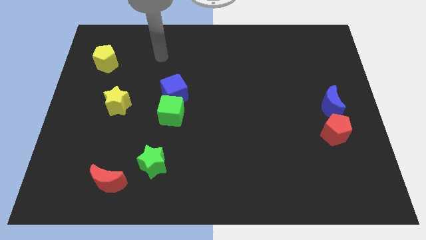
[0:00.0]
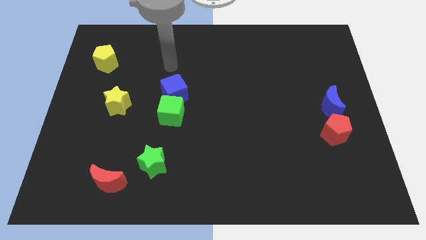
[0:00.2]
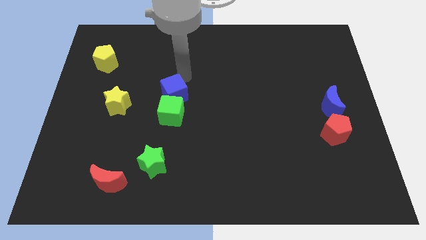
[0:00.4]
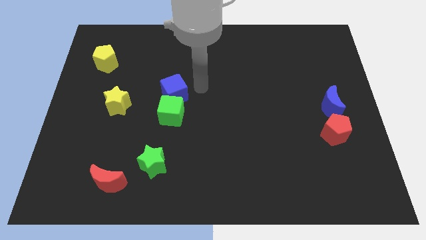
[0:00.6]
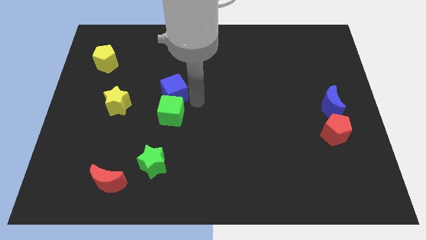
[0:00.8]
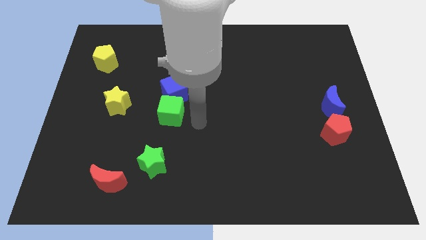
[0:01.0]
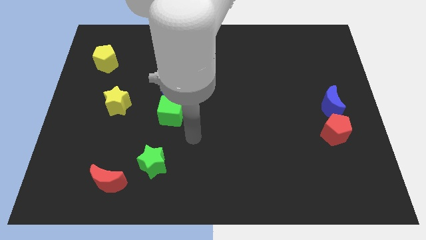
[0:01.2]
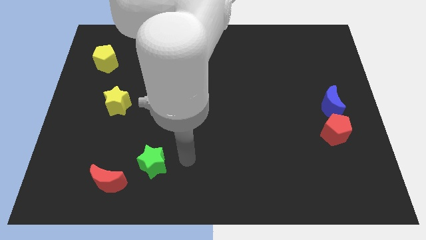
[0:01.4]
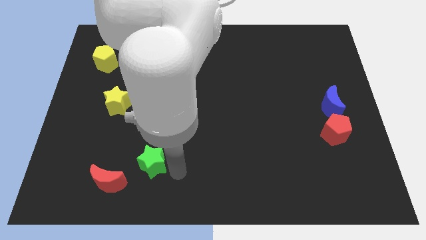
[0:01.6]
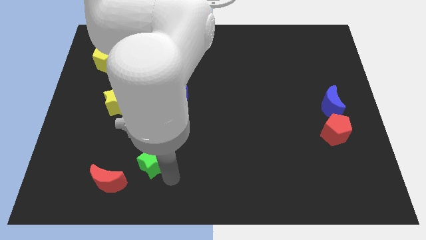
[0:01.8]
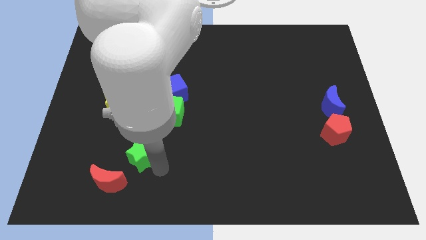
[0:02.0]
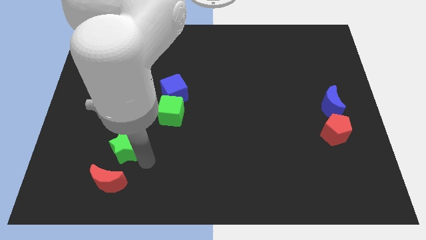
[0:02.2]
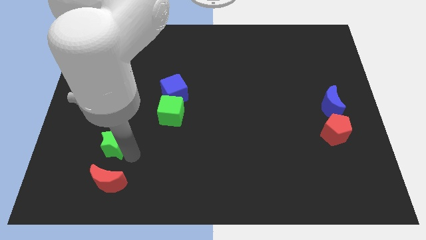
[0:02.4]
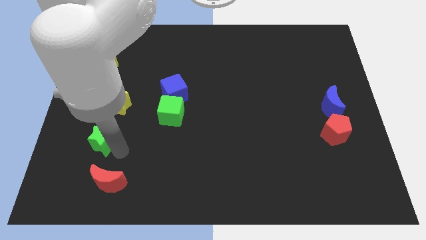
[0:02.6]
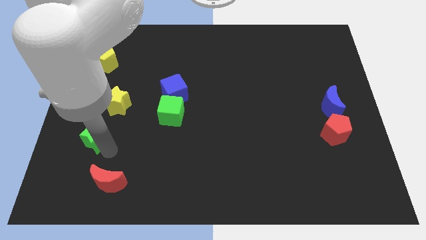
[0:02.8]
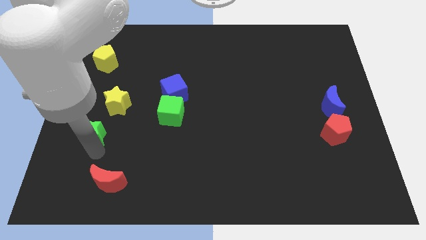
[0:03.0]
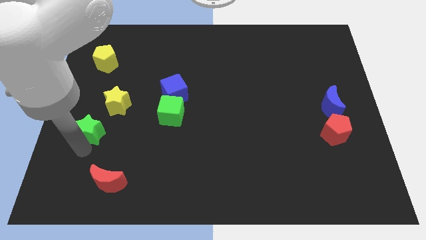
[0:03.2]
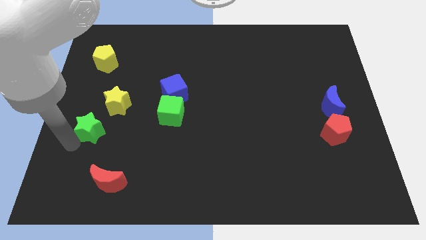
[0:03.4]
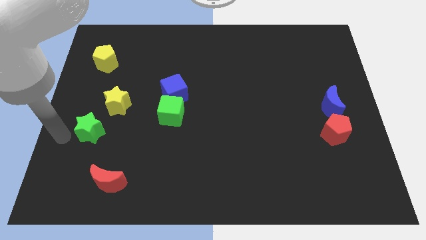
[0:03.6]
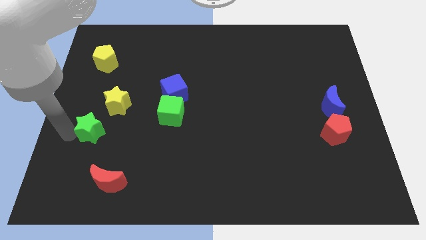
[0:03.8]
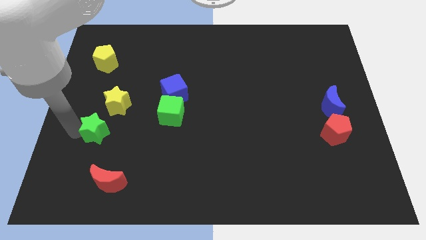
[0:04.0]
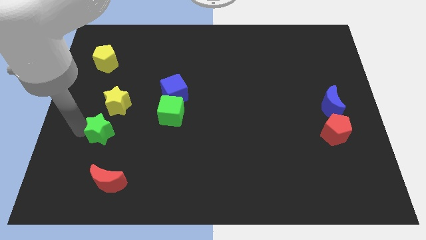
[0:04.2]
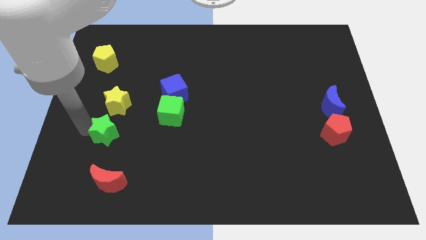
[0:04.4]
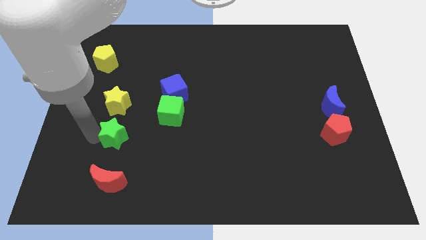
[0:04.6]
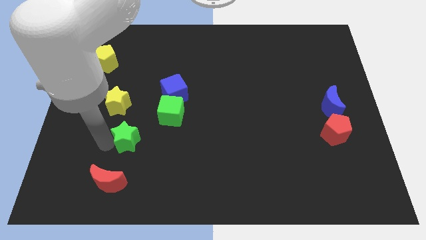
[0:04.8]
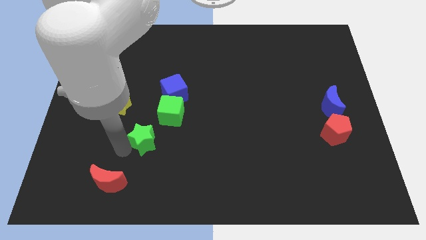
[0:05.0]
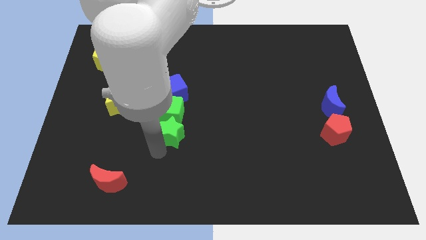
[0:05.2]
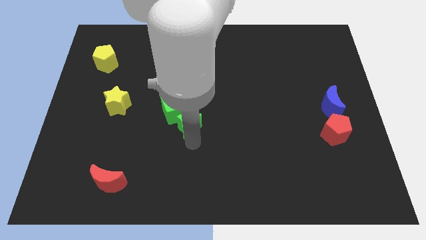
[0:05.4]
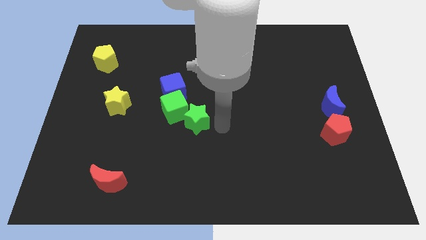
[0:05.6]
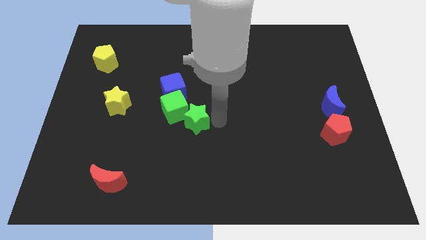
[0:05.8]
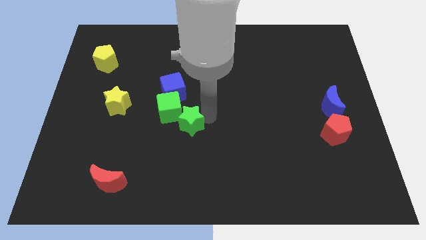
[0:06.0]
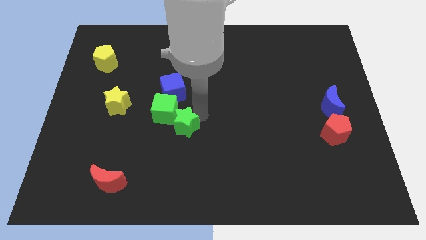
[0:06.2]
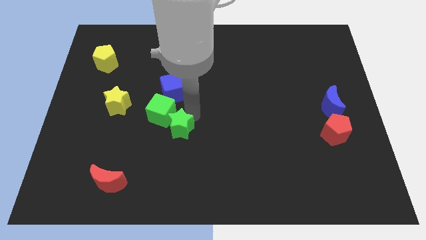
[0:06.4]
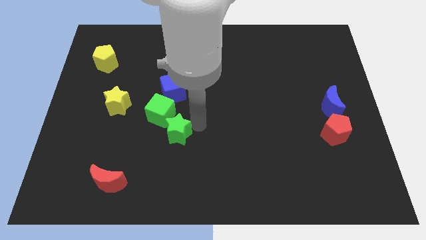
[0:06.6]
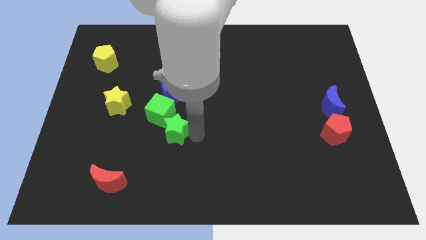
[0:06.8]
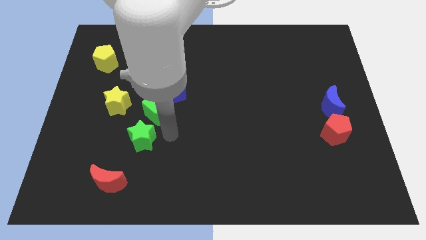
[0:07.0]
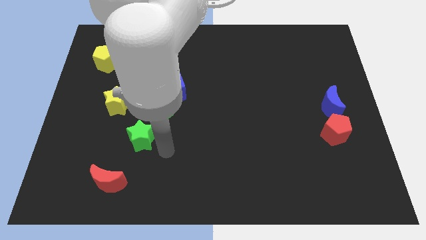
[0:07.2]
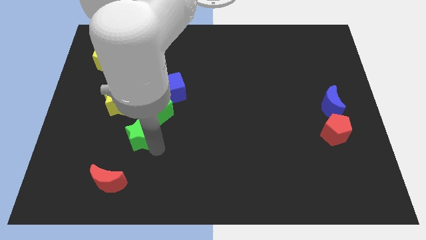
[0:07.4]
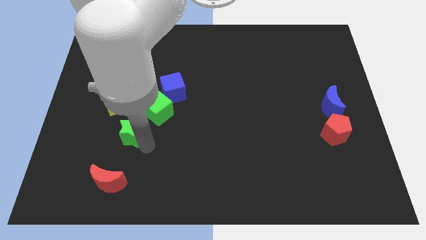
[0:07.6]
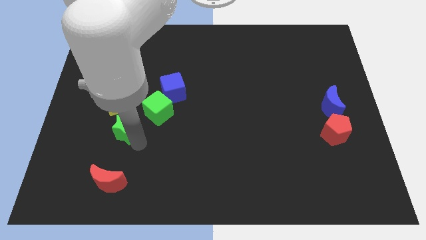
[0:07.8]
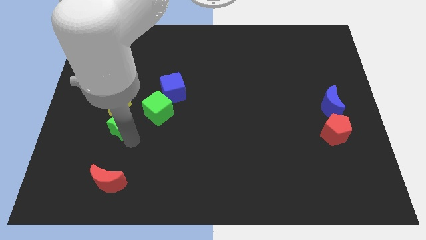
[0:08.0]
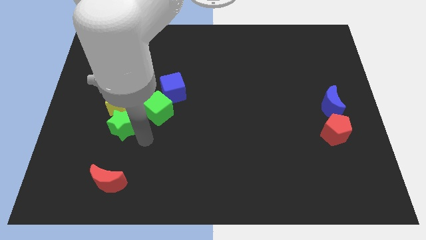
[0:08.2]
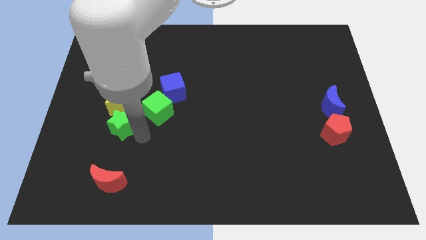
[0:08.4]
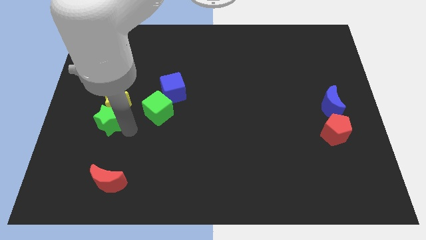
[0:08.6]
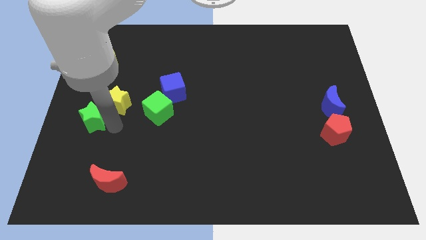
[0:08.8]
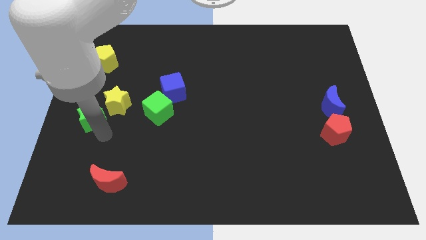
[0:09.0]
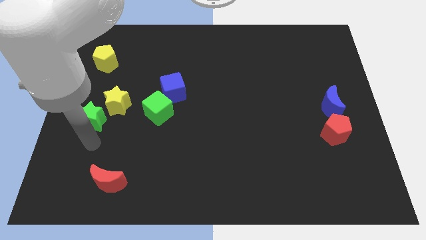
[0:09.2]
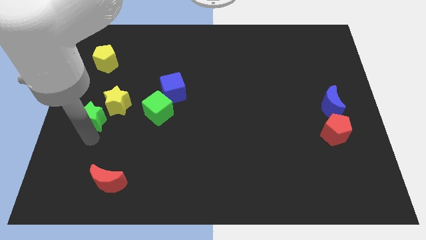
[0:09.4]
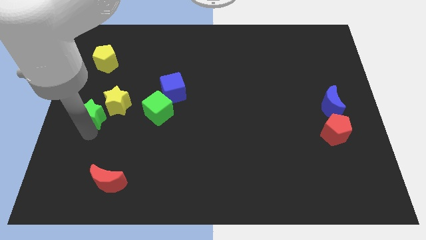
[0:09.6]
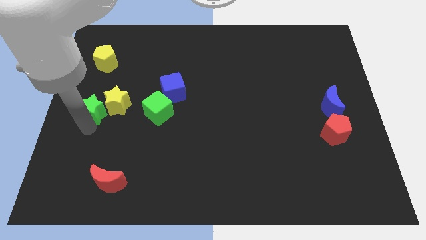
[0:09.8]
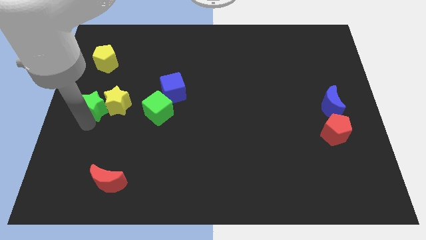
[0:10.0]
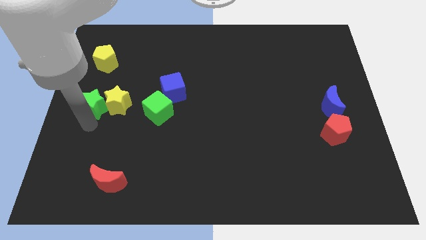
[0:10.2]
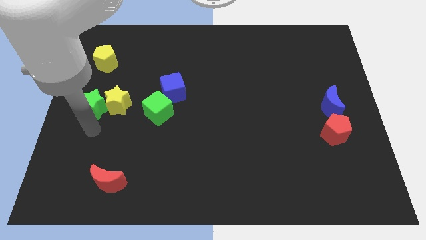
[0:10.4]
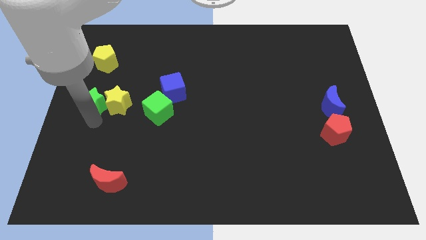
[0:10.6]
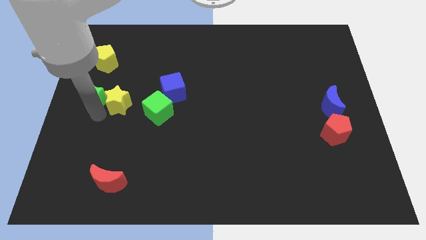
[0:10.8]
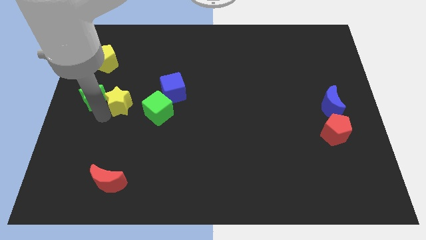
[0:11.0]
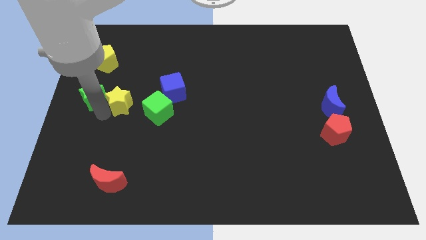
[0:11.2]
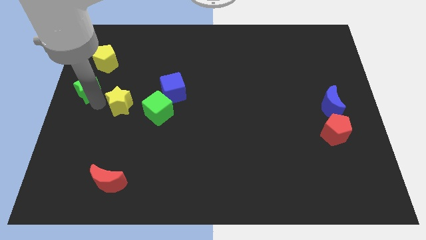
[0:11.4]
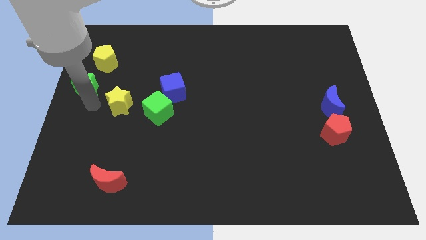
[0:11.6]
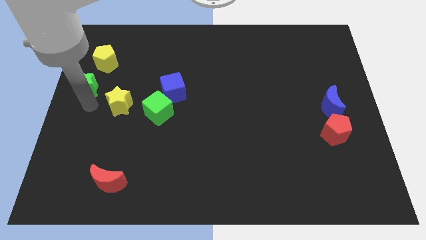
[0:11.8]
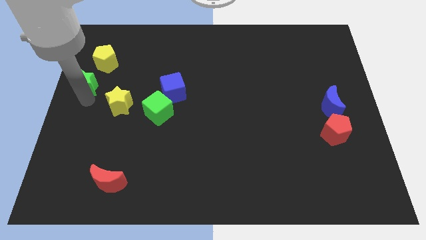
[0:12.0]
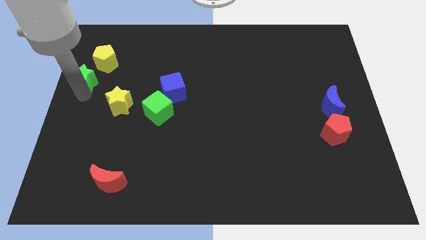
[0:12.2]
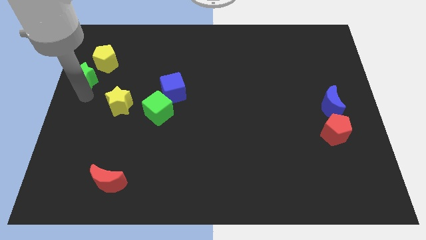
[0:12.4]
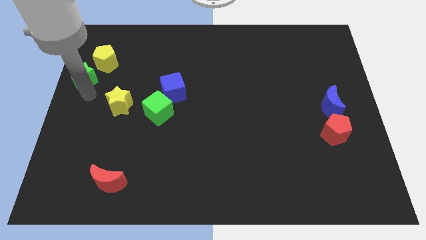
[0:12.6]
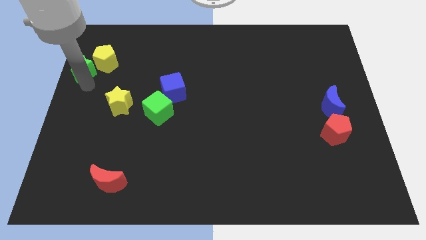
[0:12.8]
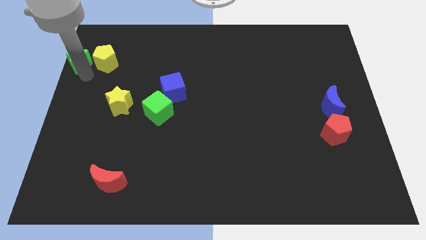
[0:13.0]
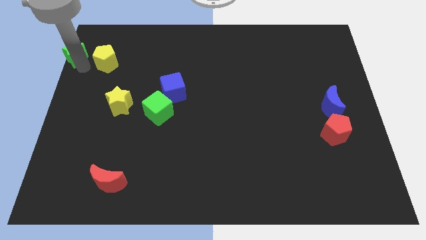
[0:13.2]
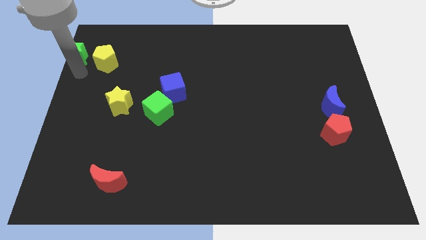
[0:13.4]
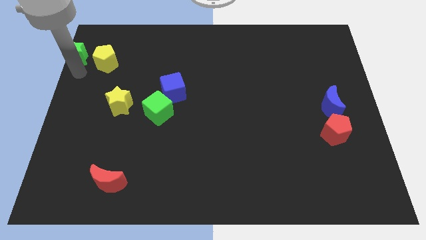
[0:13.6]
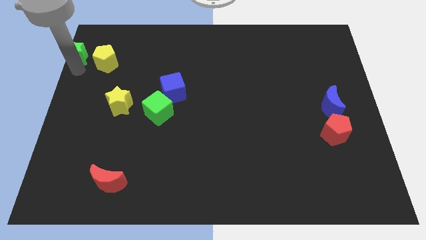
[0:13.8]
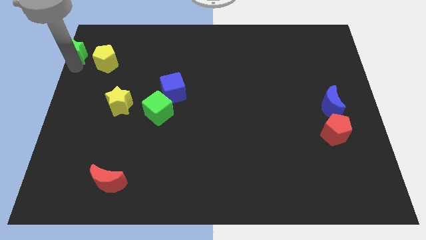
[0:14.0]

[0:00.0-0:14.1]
slide the green star to the top left
